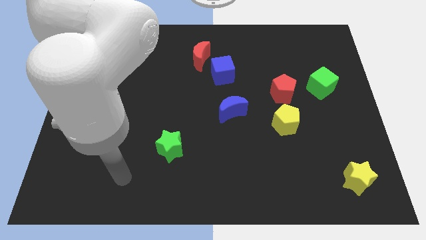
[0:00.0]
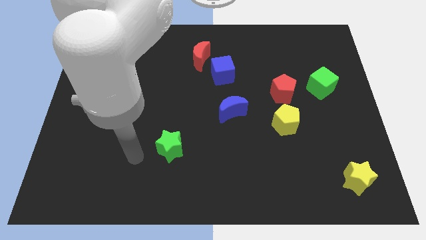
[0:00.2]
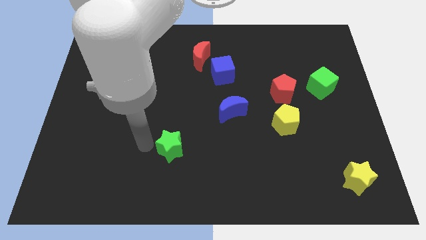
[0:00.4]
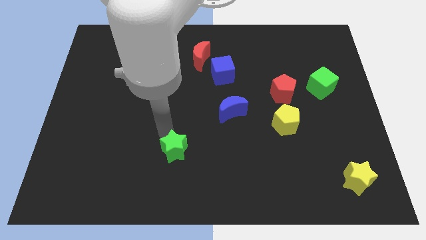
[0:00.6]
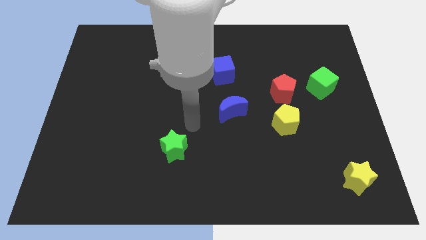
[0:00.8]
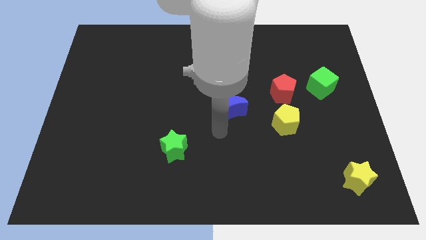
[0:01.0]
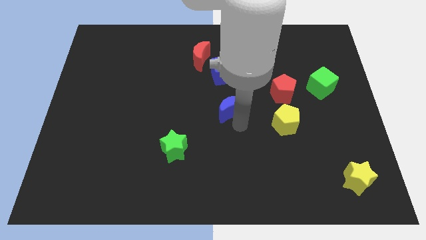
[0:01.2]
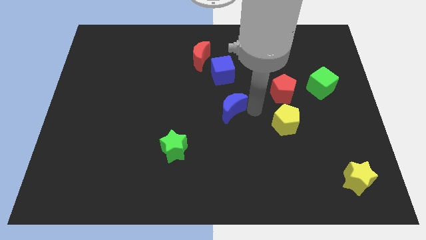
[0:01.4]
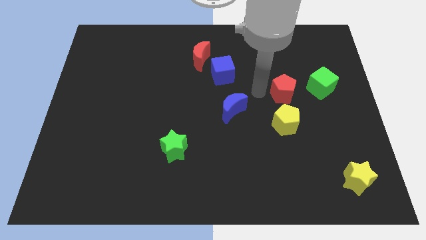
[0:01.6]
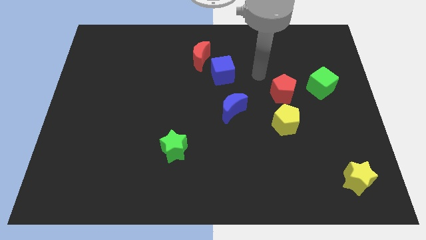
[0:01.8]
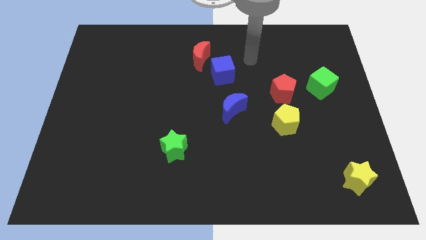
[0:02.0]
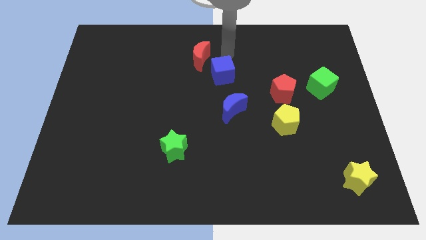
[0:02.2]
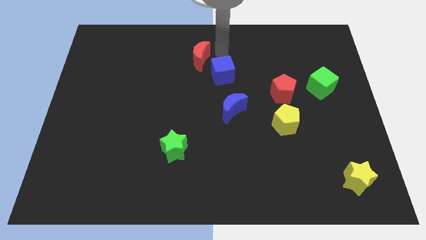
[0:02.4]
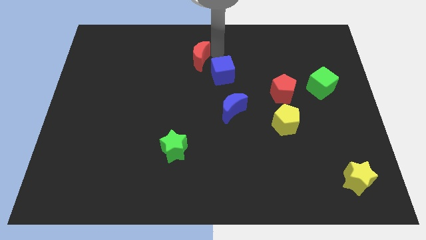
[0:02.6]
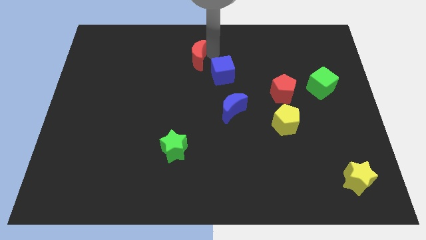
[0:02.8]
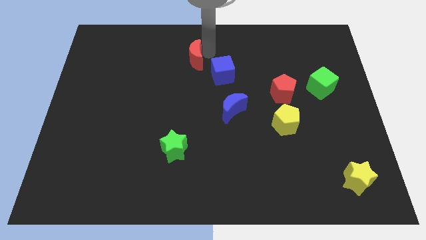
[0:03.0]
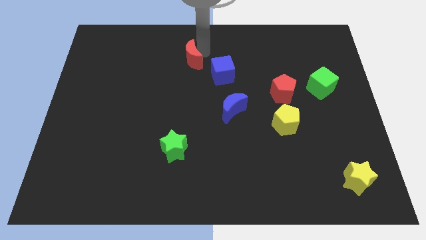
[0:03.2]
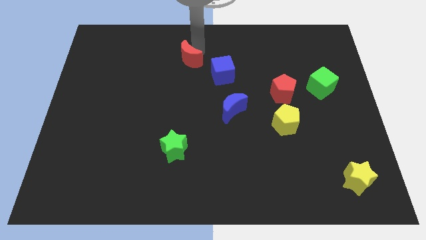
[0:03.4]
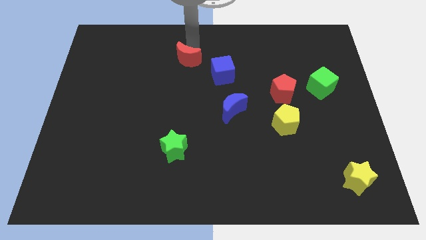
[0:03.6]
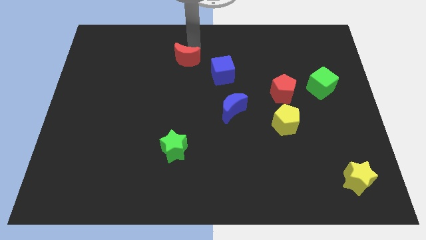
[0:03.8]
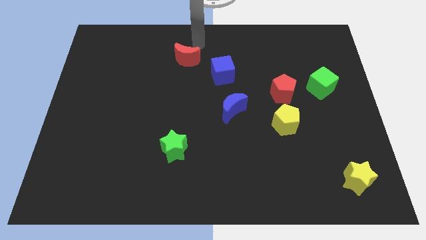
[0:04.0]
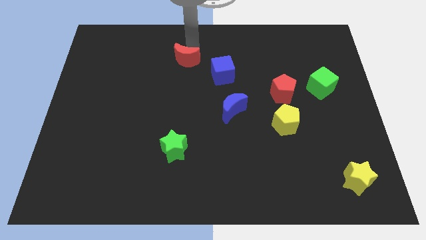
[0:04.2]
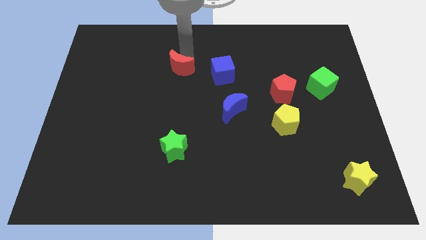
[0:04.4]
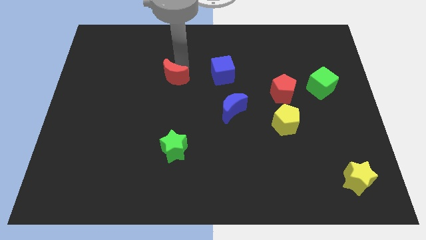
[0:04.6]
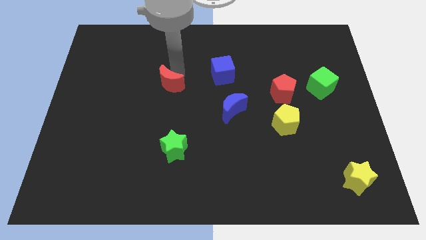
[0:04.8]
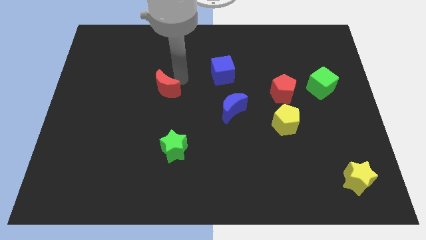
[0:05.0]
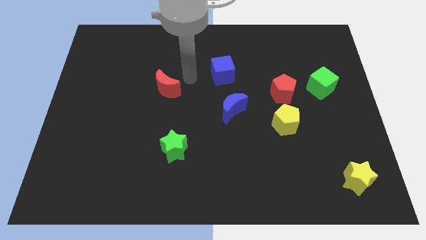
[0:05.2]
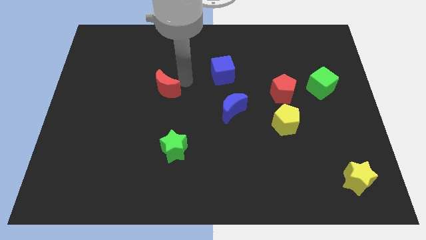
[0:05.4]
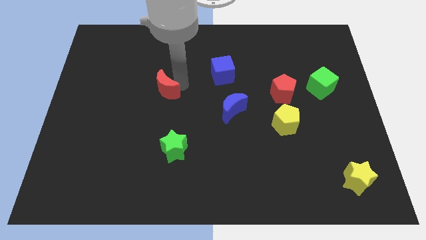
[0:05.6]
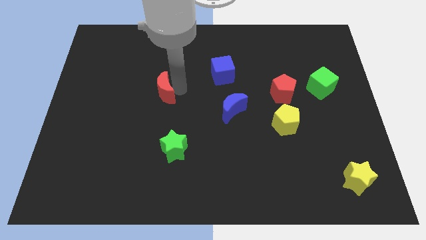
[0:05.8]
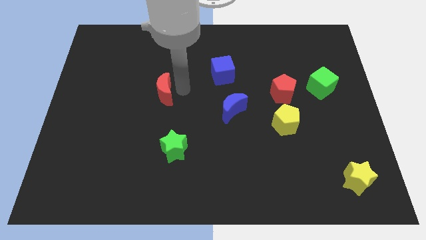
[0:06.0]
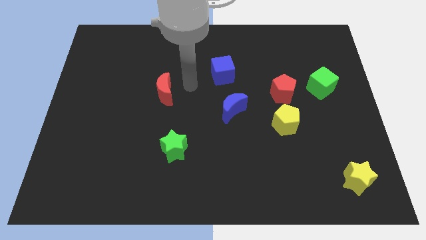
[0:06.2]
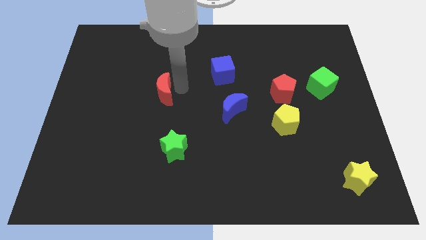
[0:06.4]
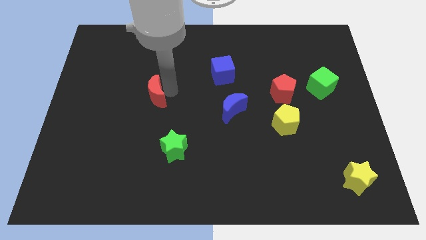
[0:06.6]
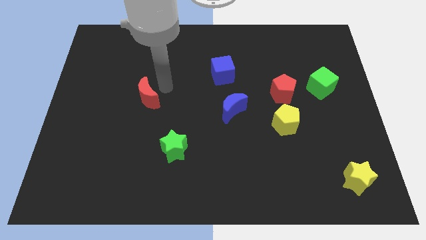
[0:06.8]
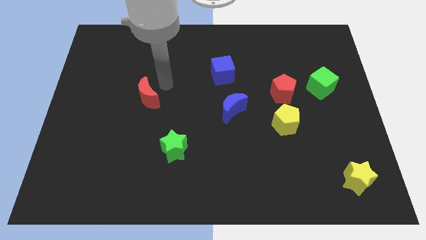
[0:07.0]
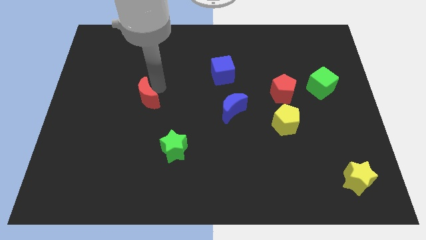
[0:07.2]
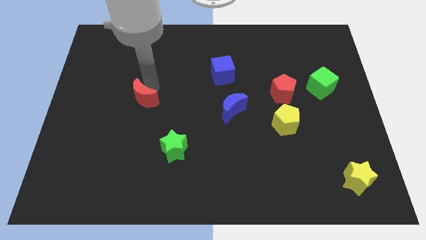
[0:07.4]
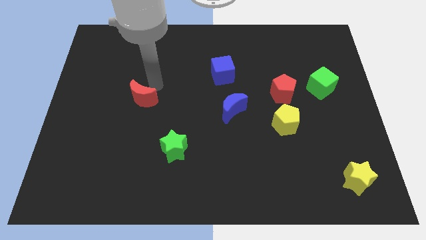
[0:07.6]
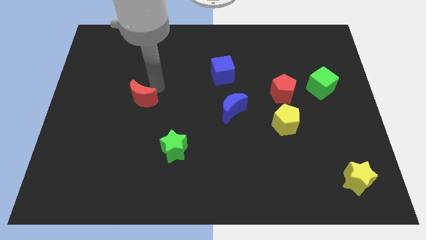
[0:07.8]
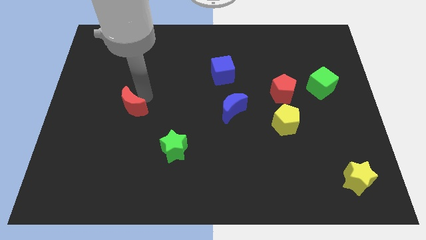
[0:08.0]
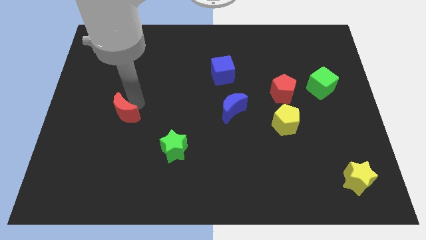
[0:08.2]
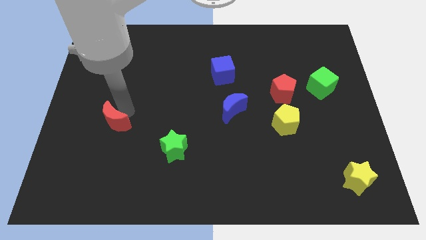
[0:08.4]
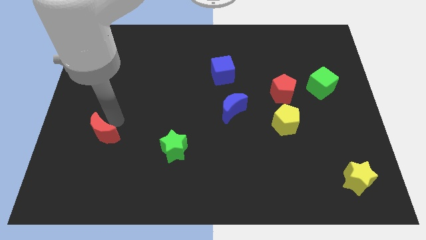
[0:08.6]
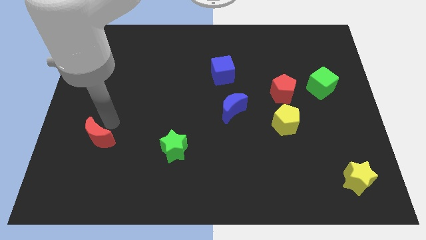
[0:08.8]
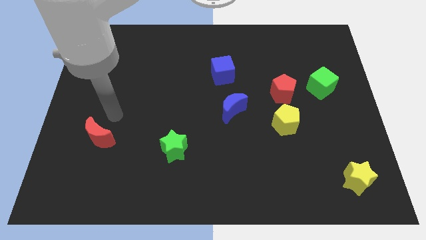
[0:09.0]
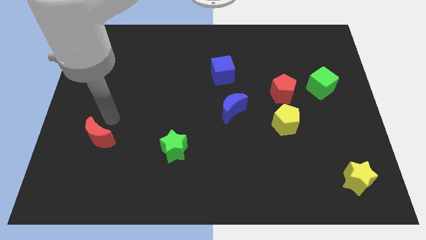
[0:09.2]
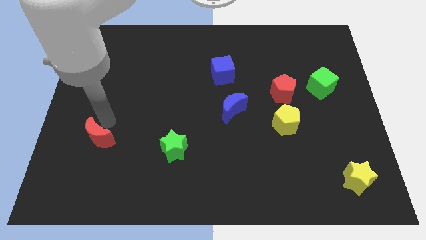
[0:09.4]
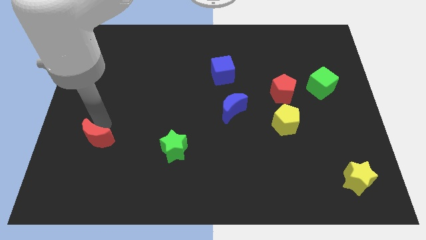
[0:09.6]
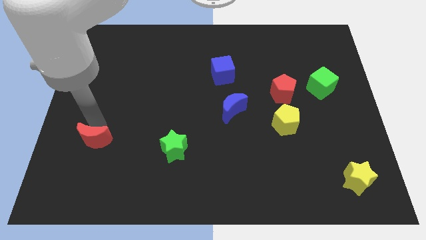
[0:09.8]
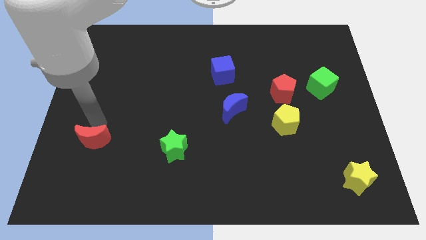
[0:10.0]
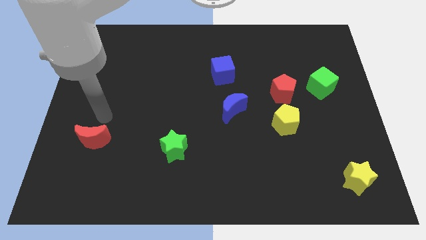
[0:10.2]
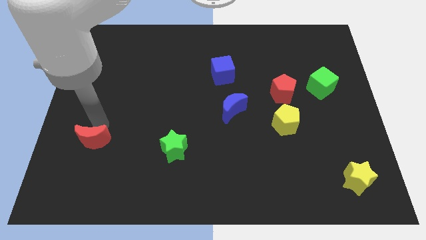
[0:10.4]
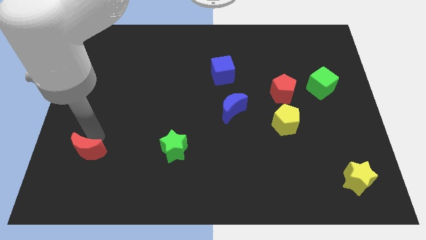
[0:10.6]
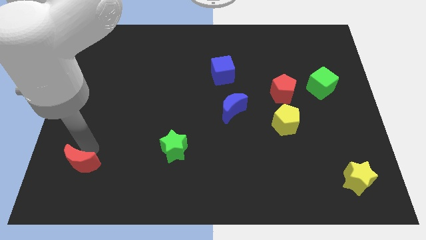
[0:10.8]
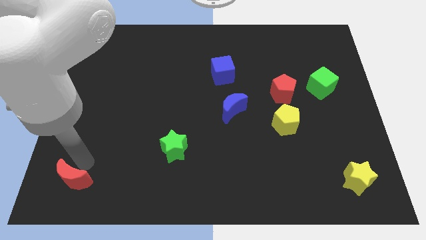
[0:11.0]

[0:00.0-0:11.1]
push the red moon to the bottom left of the board

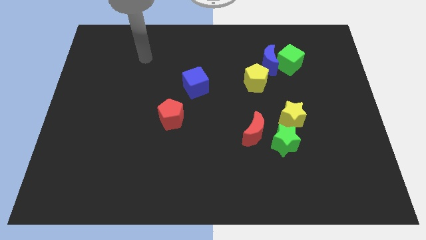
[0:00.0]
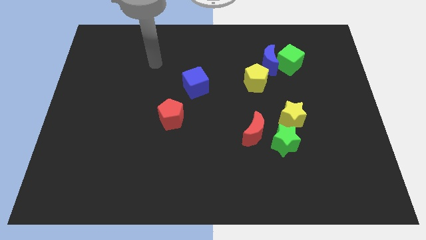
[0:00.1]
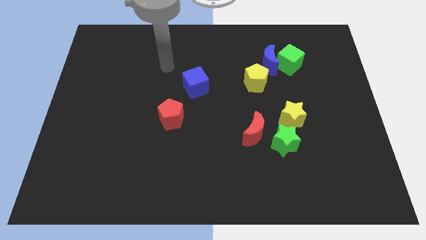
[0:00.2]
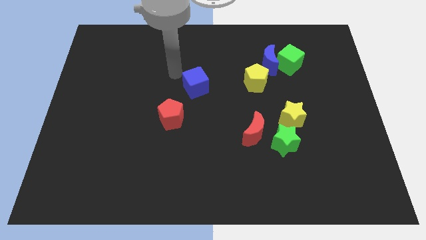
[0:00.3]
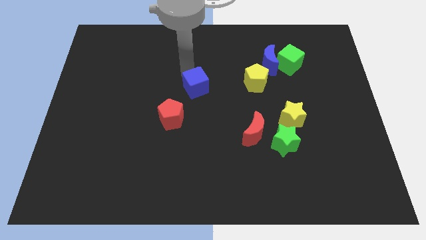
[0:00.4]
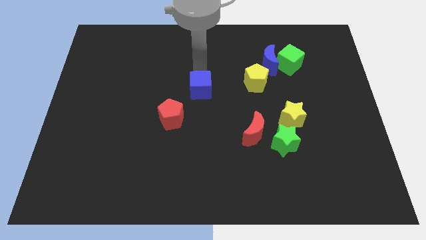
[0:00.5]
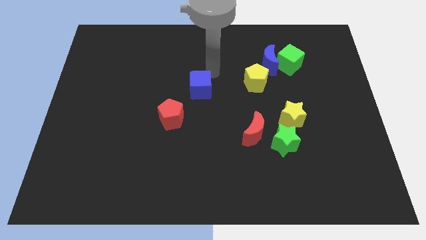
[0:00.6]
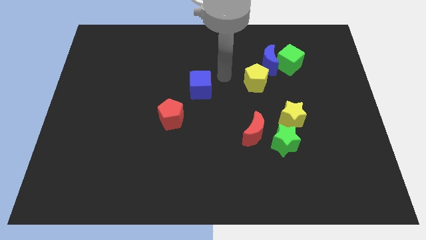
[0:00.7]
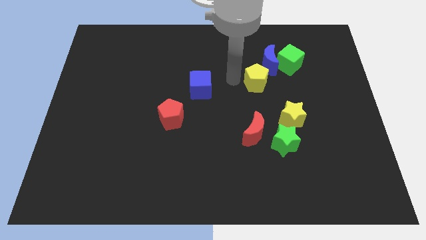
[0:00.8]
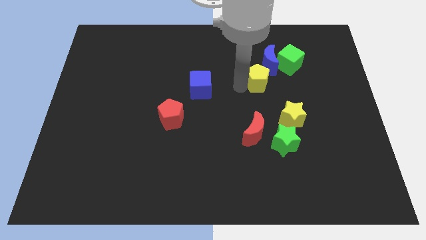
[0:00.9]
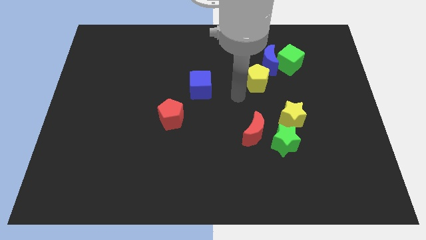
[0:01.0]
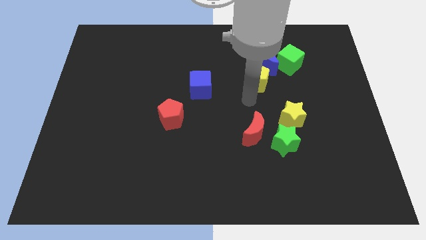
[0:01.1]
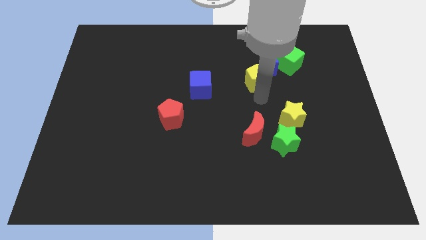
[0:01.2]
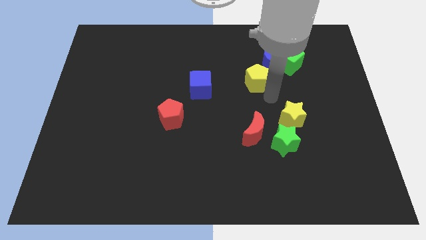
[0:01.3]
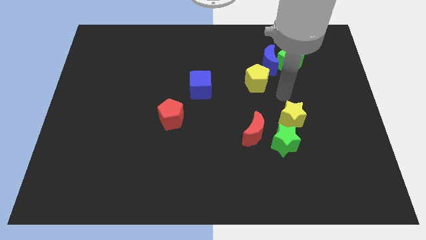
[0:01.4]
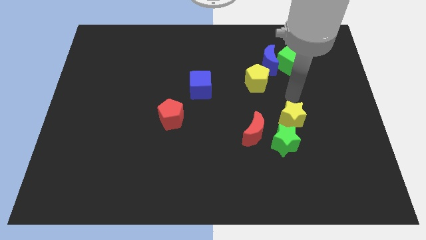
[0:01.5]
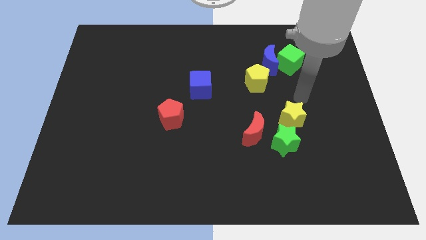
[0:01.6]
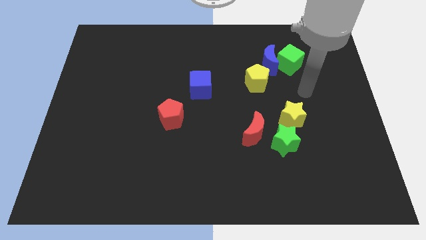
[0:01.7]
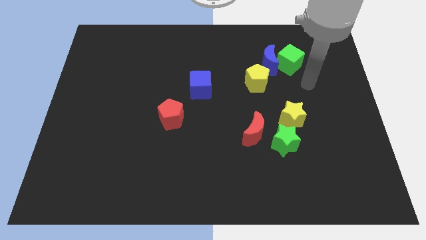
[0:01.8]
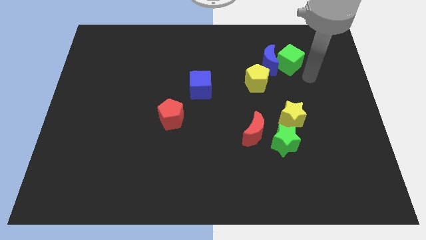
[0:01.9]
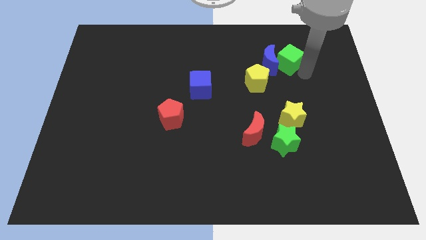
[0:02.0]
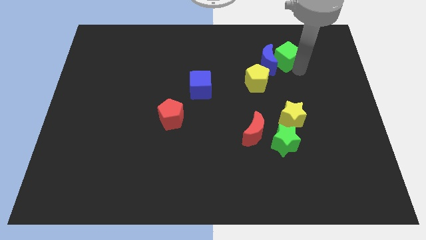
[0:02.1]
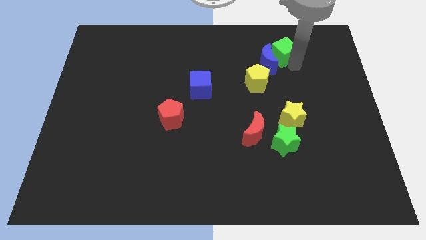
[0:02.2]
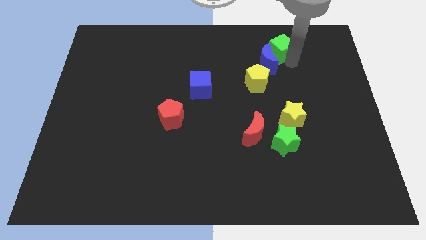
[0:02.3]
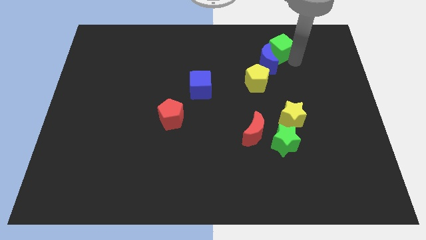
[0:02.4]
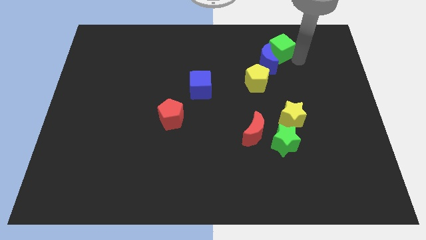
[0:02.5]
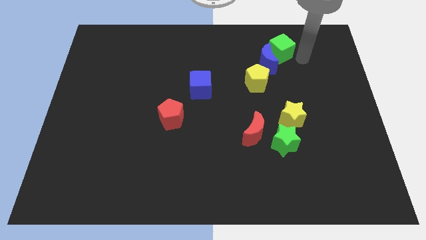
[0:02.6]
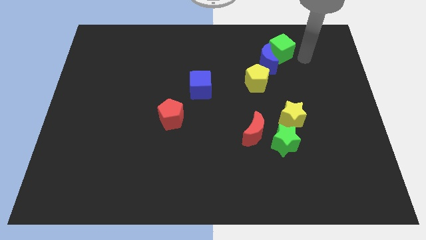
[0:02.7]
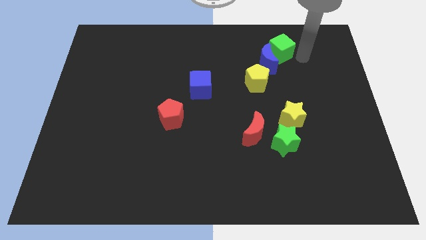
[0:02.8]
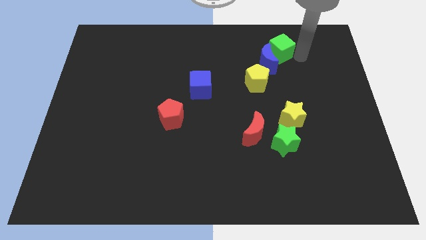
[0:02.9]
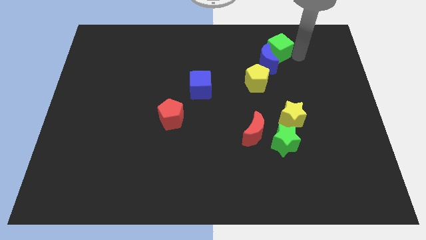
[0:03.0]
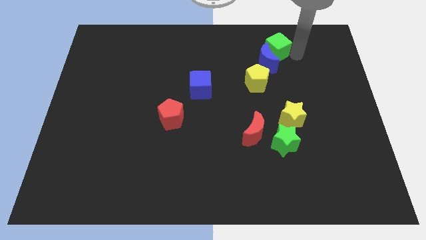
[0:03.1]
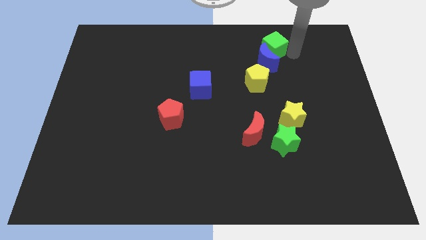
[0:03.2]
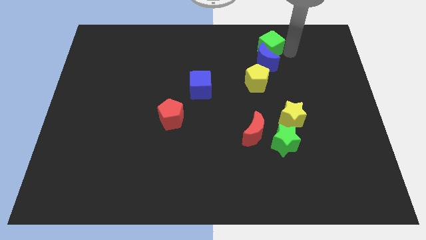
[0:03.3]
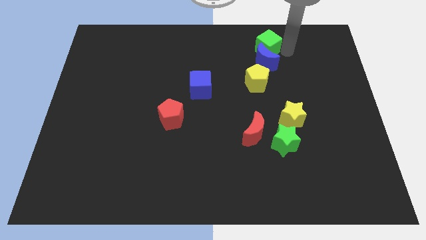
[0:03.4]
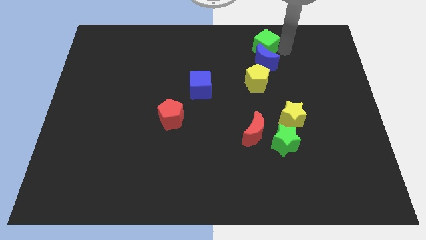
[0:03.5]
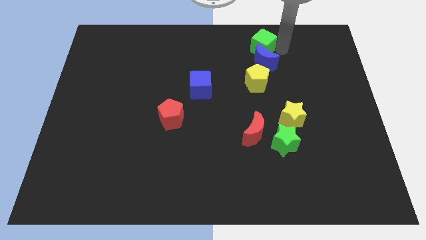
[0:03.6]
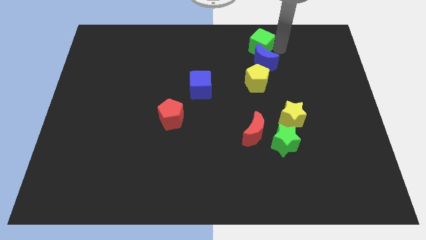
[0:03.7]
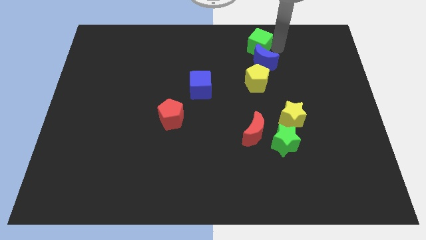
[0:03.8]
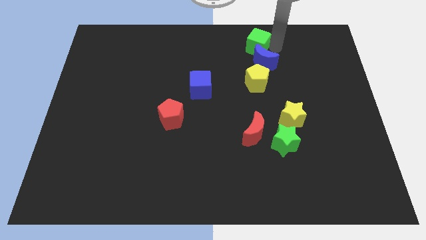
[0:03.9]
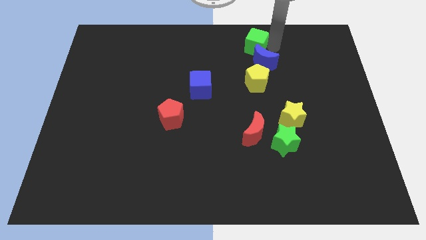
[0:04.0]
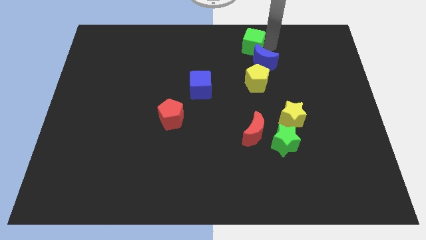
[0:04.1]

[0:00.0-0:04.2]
move the green cube to the top side
